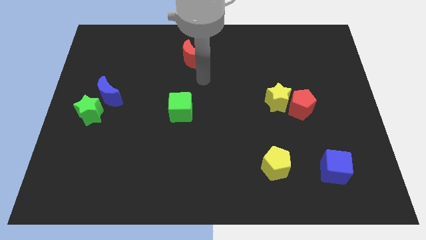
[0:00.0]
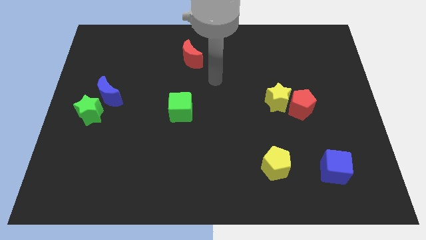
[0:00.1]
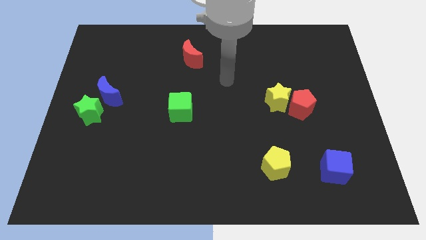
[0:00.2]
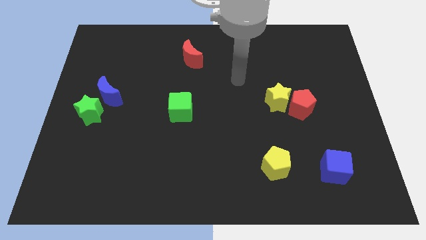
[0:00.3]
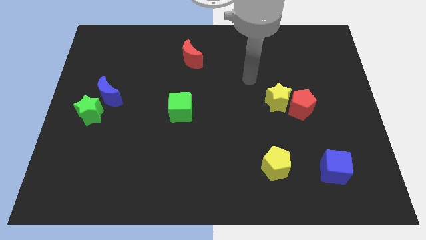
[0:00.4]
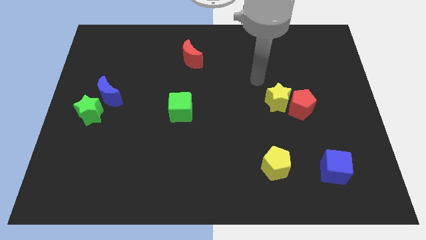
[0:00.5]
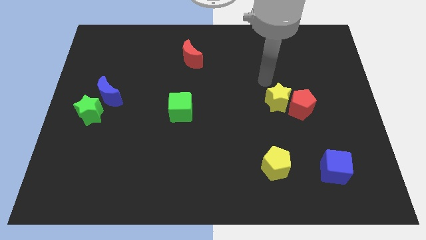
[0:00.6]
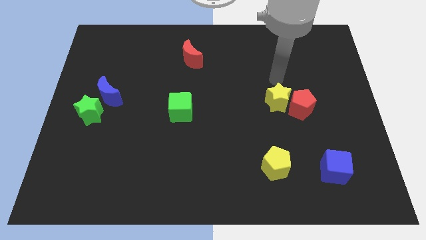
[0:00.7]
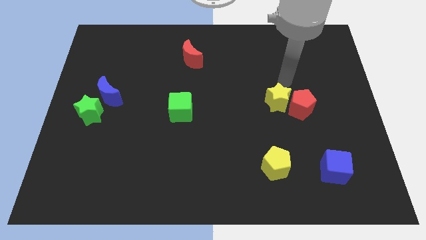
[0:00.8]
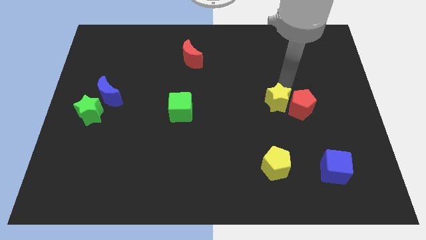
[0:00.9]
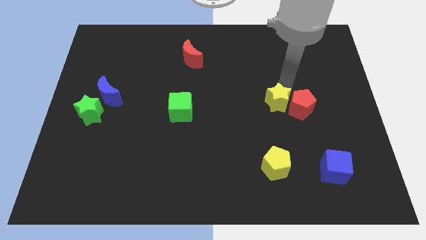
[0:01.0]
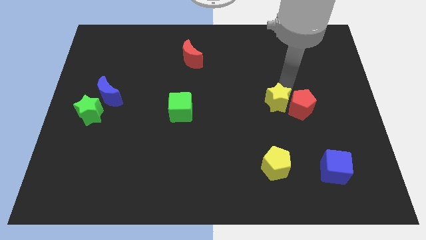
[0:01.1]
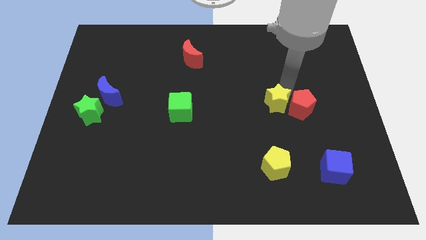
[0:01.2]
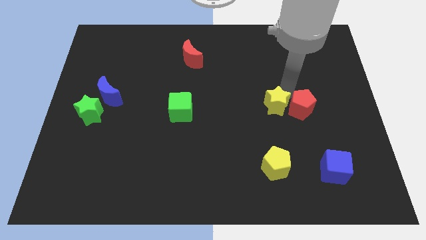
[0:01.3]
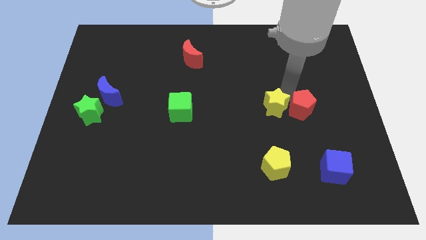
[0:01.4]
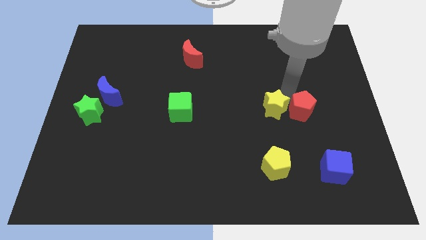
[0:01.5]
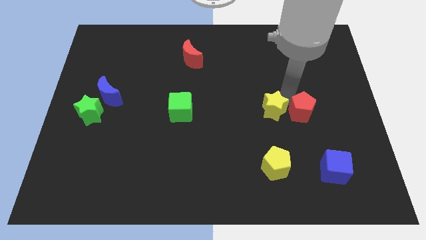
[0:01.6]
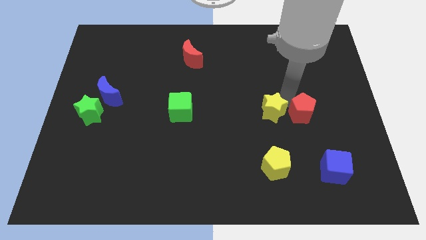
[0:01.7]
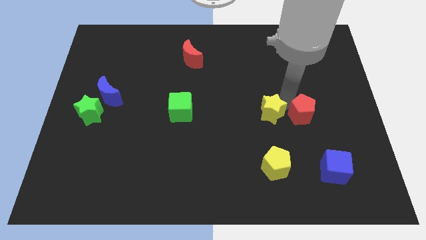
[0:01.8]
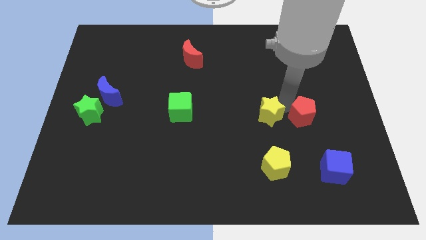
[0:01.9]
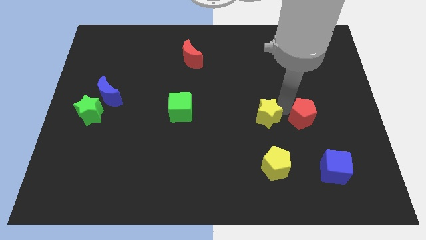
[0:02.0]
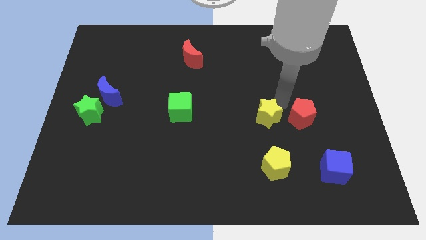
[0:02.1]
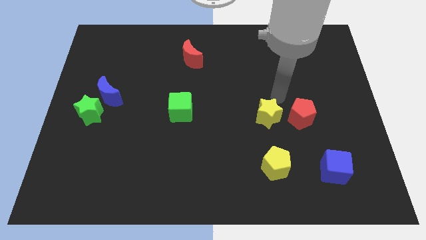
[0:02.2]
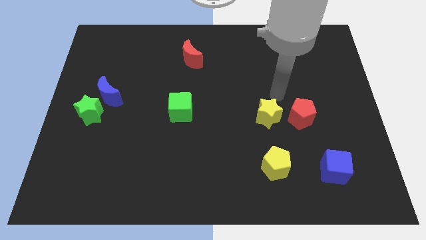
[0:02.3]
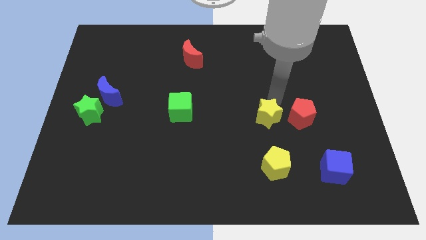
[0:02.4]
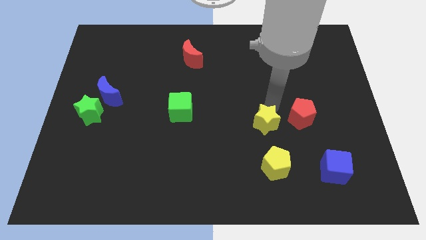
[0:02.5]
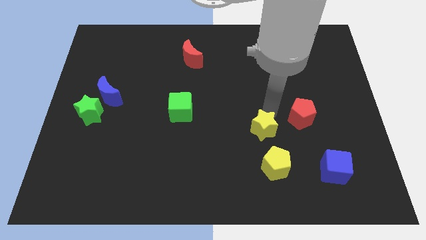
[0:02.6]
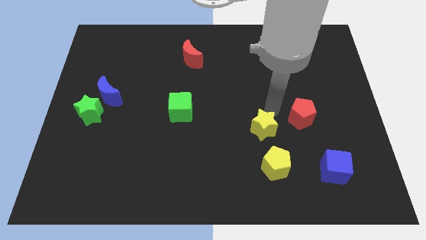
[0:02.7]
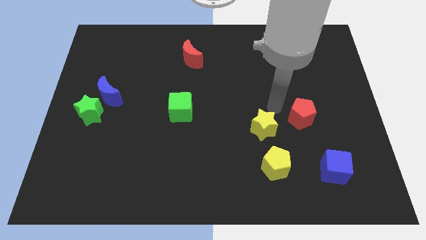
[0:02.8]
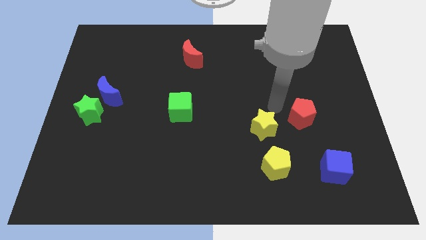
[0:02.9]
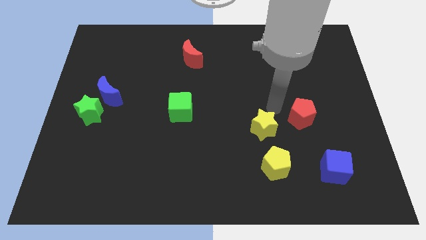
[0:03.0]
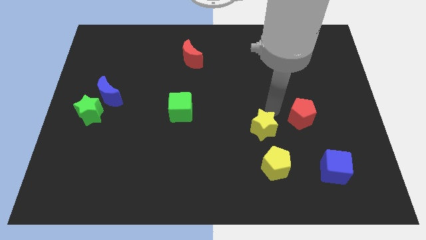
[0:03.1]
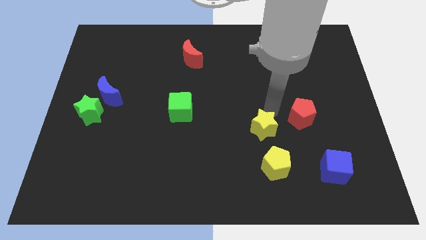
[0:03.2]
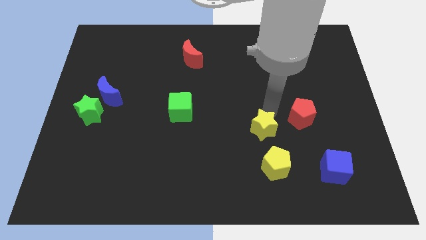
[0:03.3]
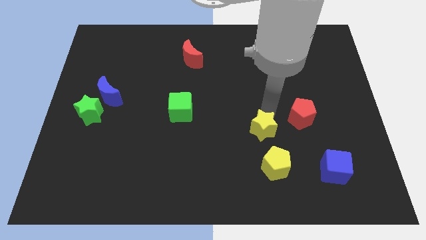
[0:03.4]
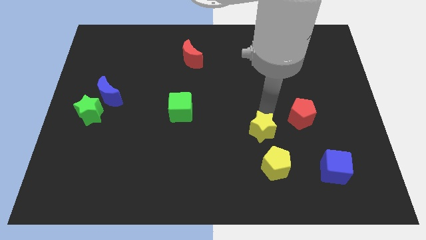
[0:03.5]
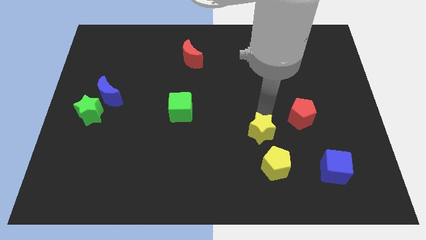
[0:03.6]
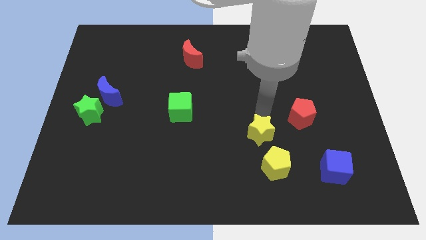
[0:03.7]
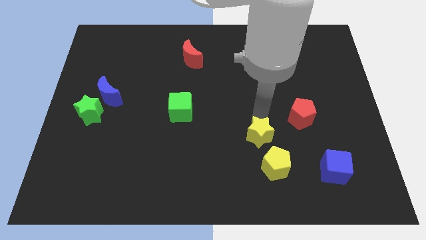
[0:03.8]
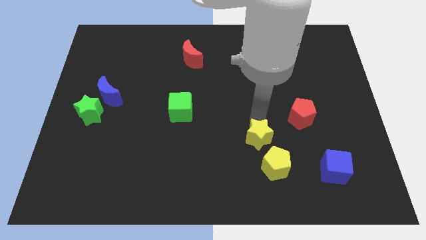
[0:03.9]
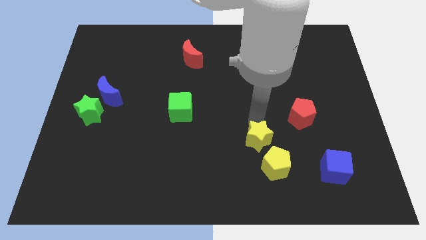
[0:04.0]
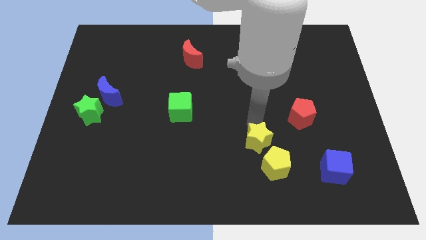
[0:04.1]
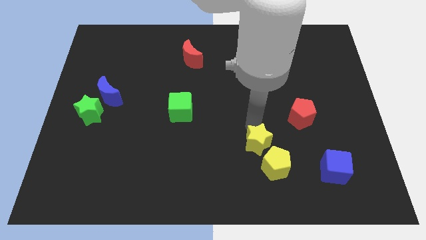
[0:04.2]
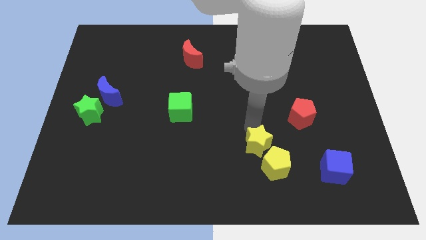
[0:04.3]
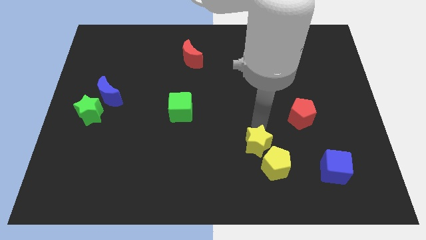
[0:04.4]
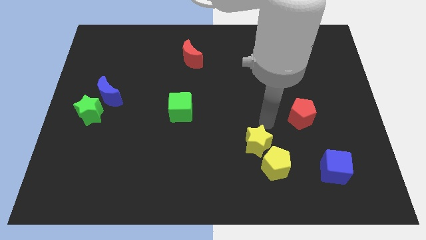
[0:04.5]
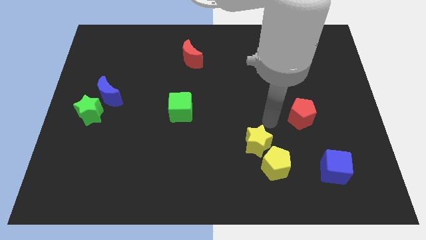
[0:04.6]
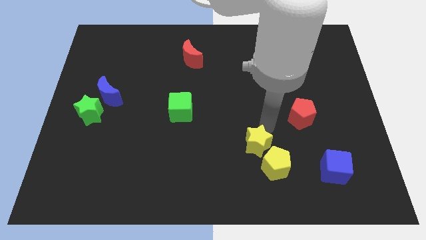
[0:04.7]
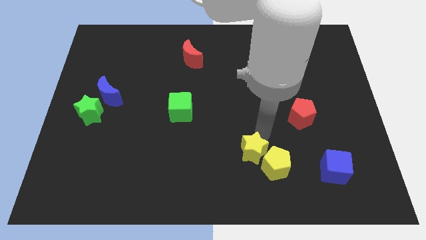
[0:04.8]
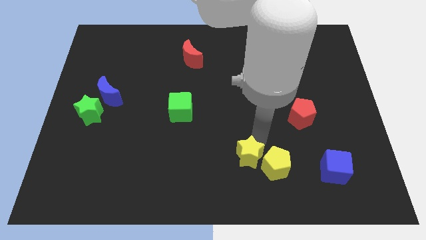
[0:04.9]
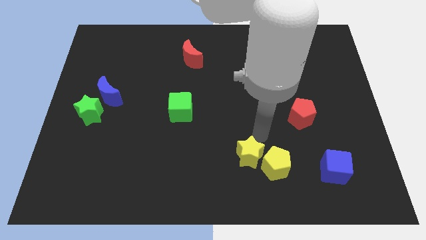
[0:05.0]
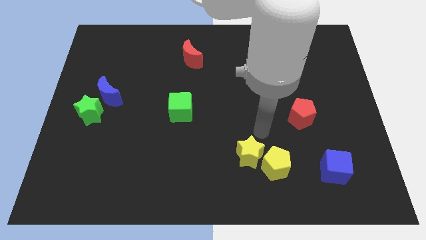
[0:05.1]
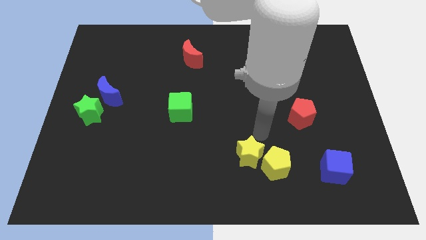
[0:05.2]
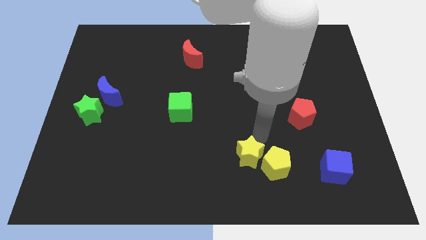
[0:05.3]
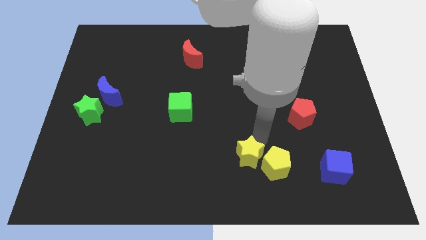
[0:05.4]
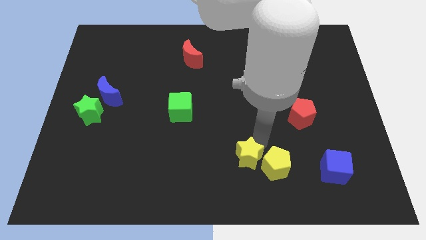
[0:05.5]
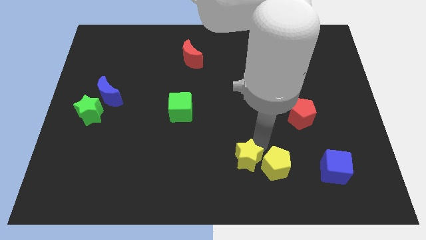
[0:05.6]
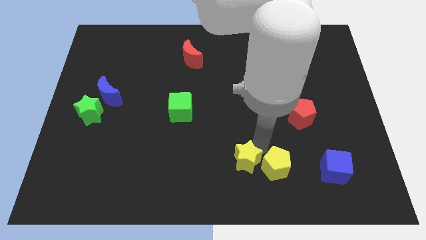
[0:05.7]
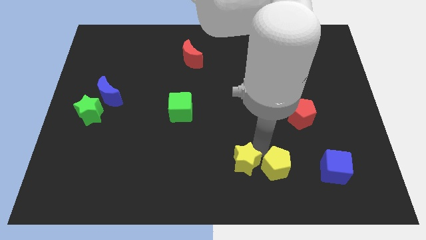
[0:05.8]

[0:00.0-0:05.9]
push the yellow star to the bottom

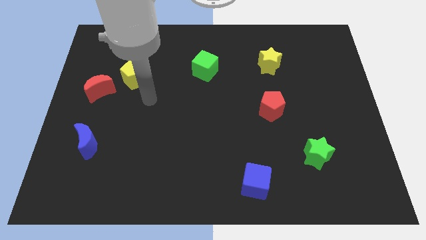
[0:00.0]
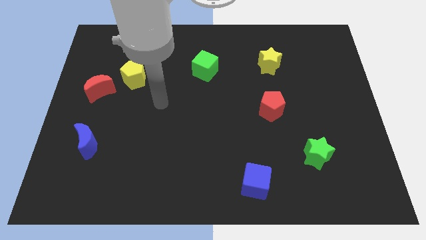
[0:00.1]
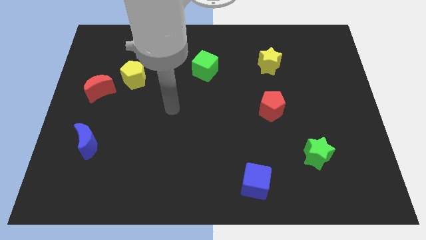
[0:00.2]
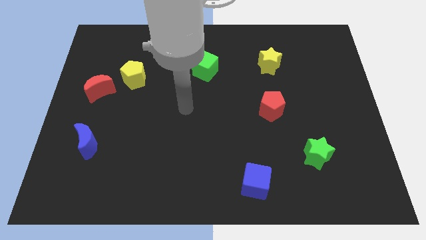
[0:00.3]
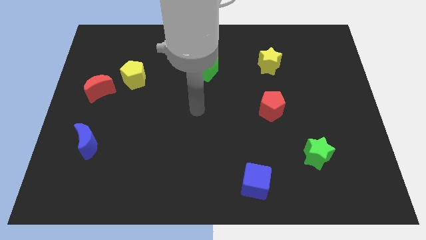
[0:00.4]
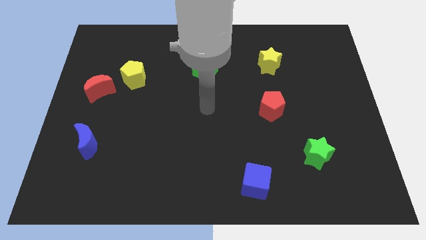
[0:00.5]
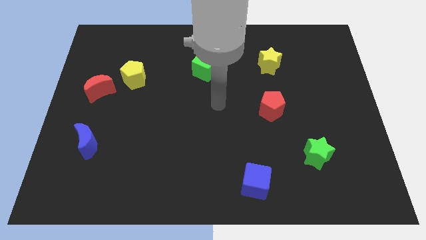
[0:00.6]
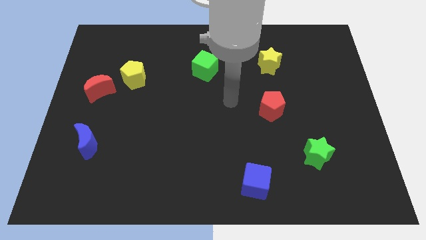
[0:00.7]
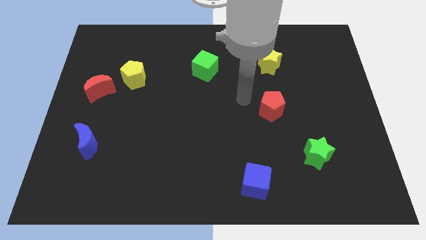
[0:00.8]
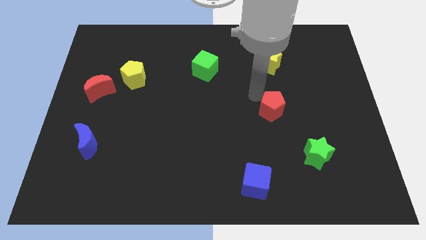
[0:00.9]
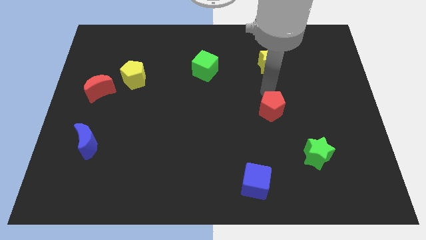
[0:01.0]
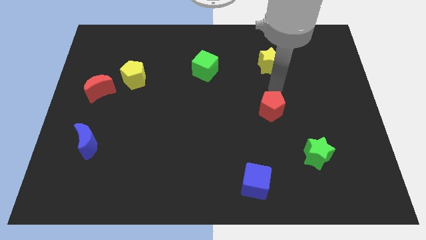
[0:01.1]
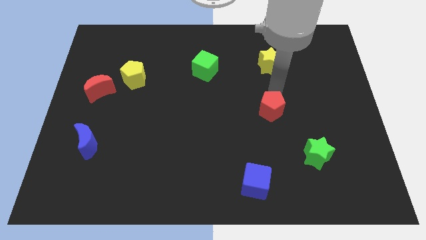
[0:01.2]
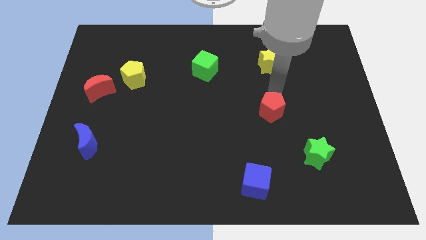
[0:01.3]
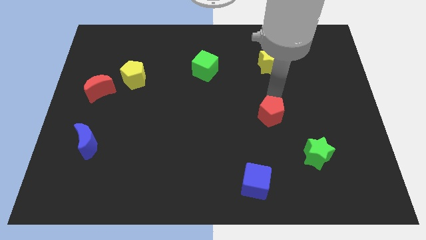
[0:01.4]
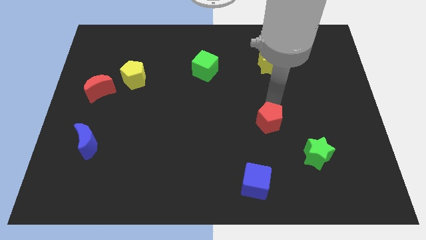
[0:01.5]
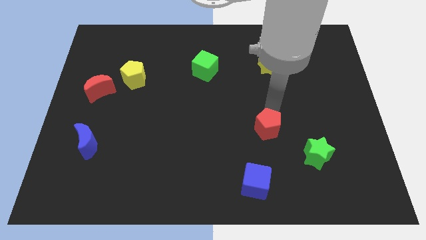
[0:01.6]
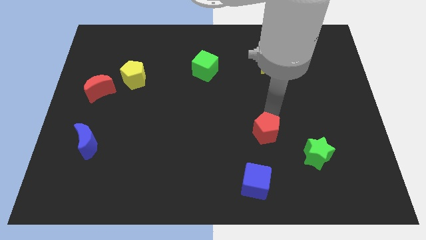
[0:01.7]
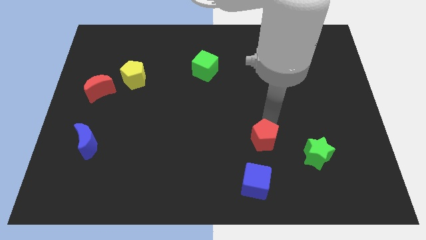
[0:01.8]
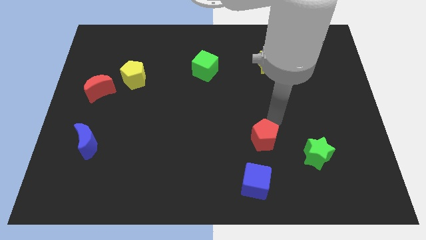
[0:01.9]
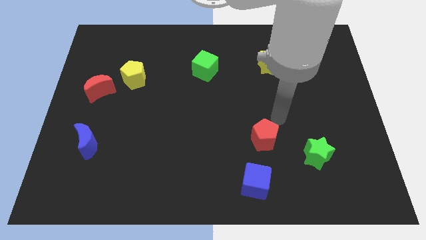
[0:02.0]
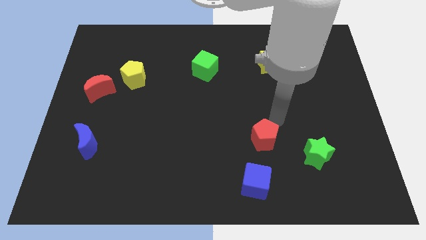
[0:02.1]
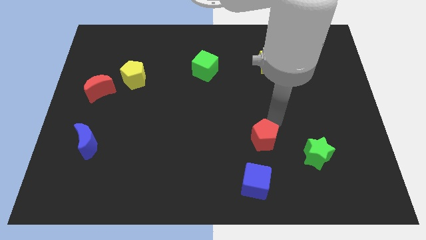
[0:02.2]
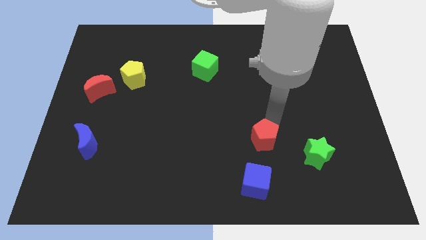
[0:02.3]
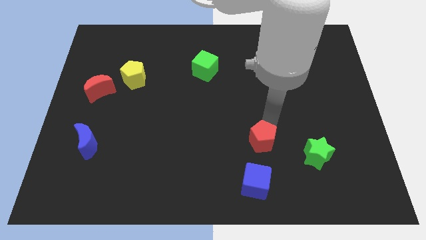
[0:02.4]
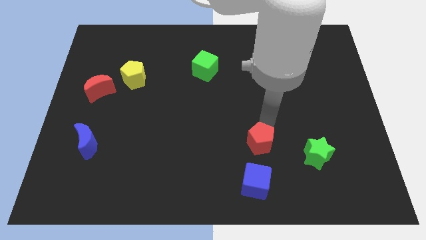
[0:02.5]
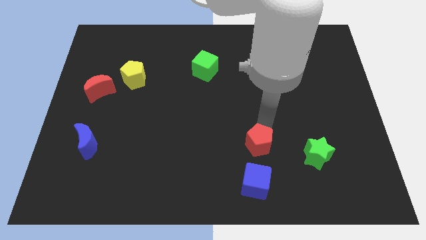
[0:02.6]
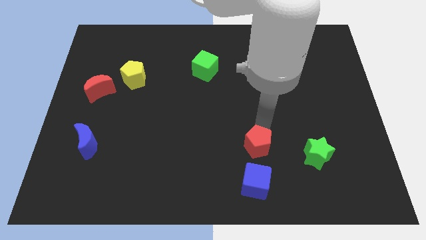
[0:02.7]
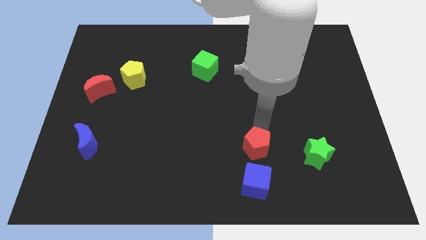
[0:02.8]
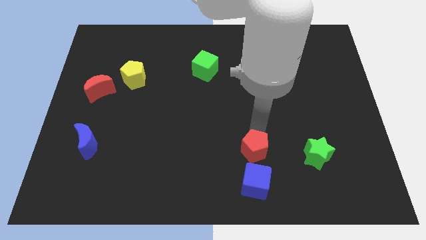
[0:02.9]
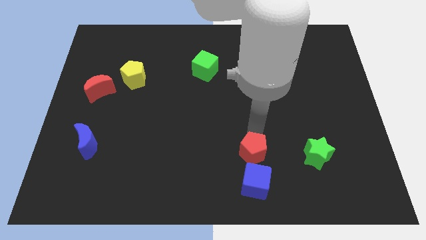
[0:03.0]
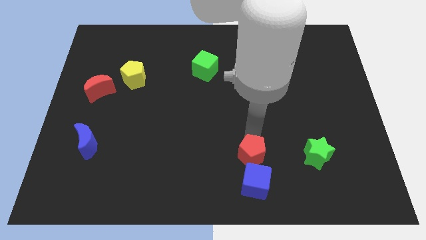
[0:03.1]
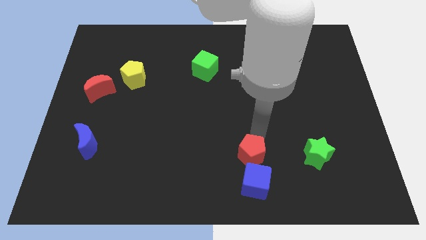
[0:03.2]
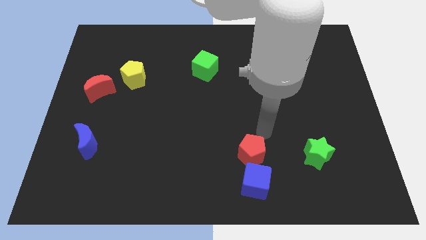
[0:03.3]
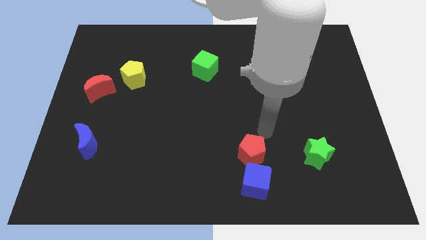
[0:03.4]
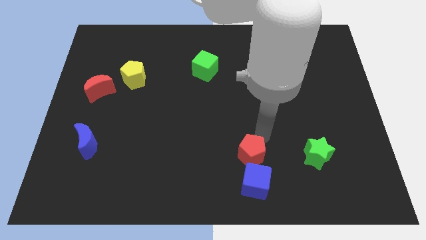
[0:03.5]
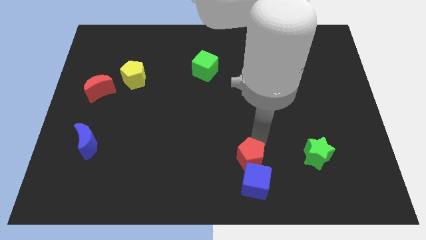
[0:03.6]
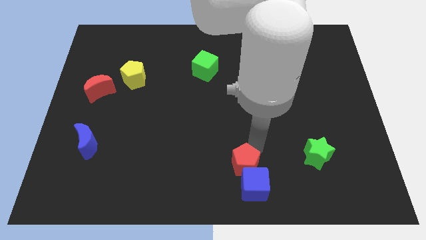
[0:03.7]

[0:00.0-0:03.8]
put the red pentagon to the bottom
